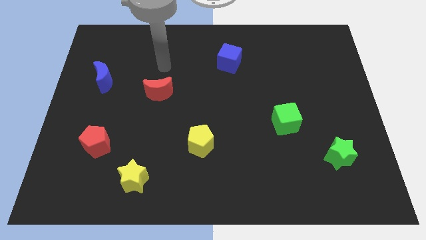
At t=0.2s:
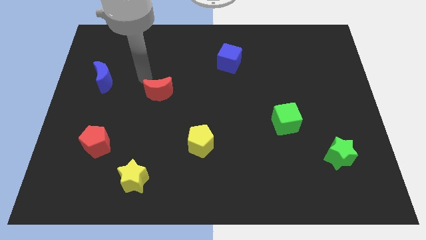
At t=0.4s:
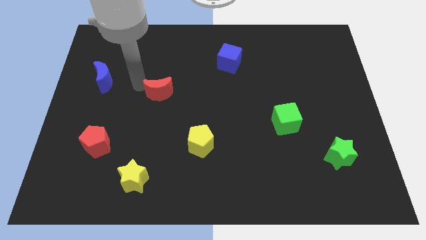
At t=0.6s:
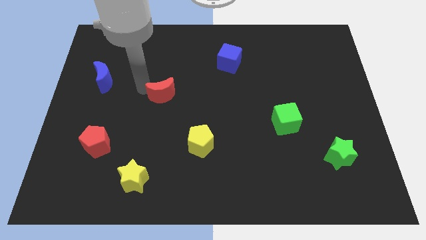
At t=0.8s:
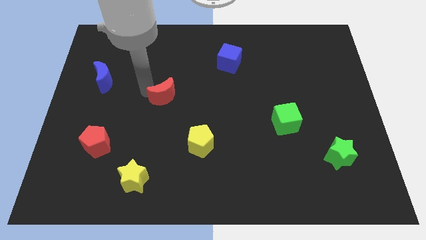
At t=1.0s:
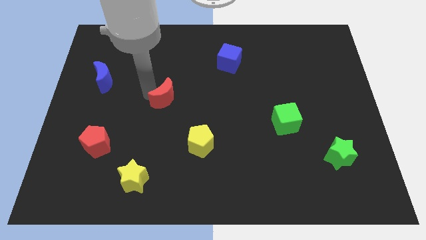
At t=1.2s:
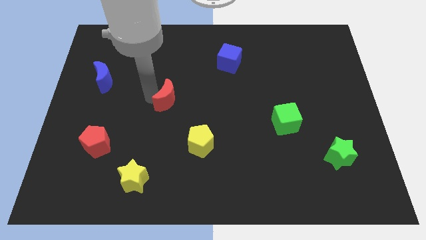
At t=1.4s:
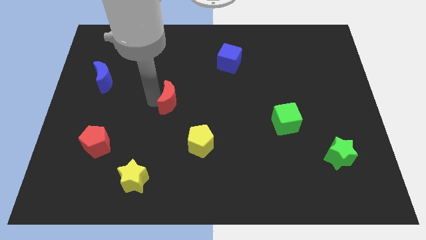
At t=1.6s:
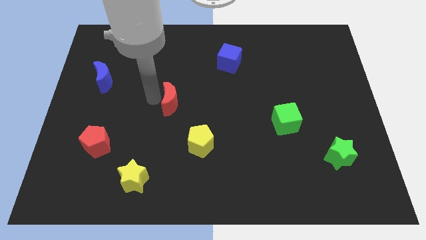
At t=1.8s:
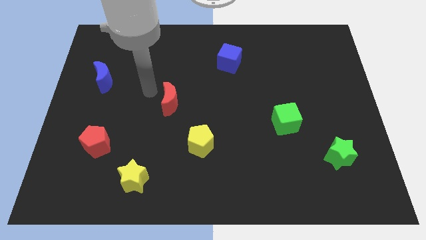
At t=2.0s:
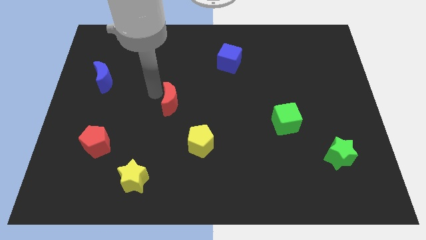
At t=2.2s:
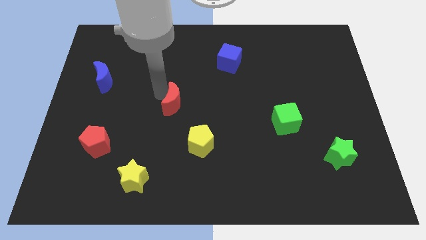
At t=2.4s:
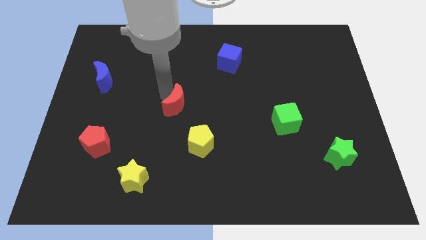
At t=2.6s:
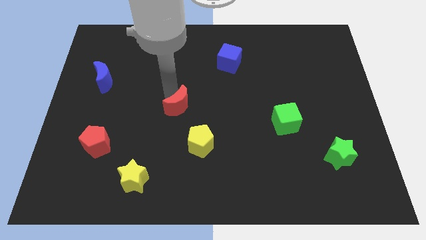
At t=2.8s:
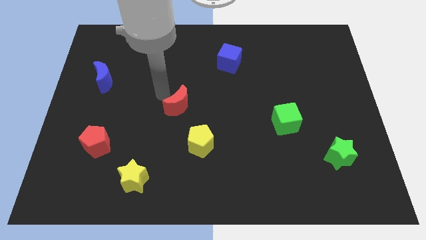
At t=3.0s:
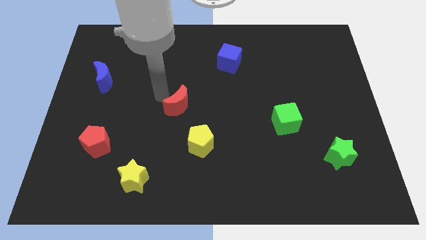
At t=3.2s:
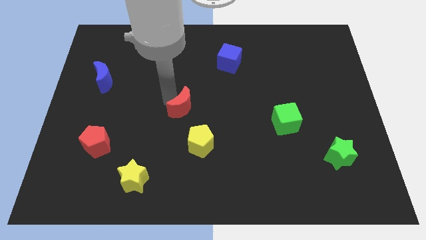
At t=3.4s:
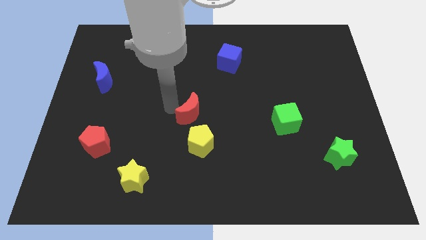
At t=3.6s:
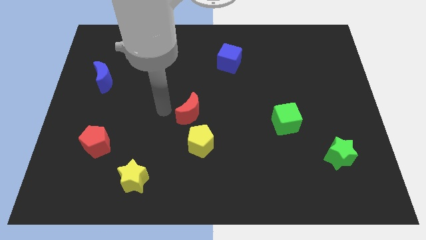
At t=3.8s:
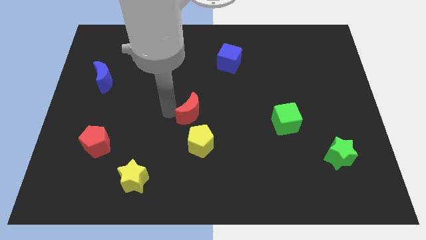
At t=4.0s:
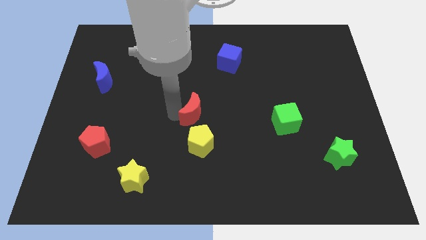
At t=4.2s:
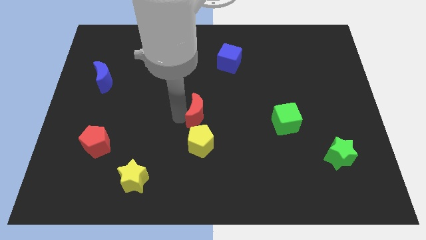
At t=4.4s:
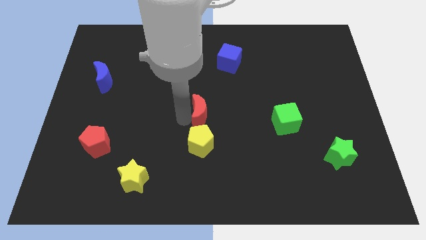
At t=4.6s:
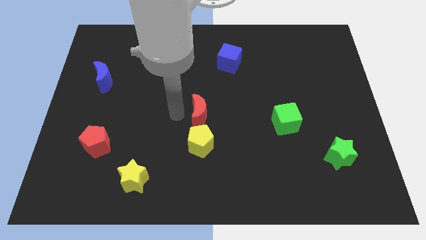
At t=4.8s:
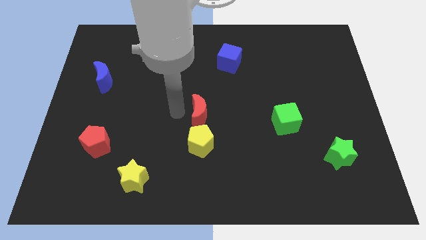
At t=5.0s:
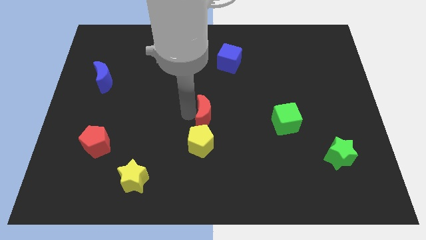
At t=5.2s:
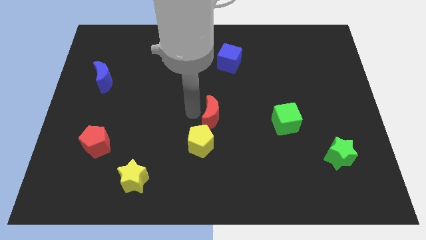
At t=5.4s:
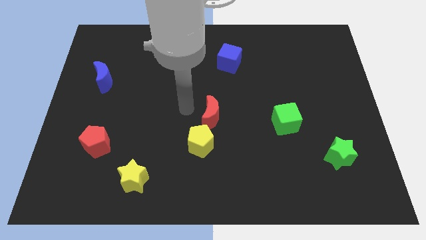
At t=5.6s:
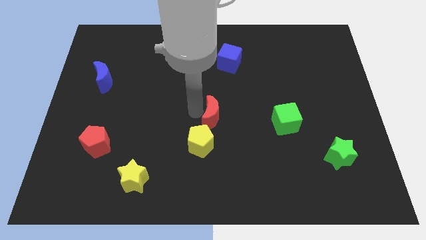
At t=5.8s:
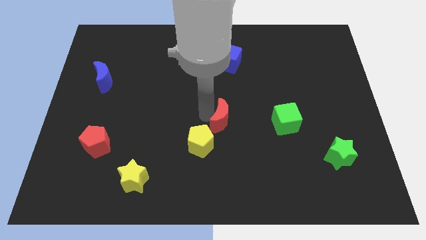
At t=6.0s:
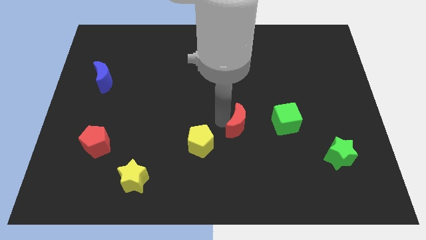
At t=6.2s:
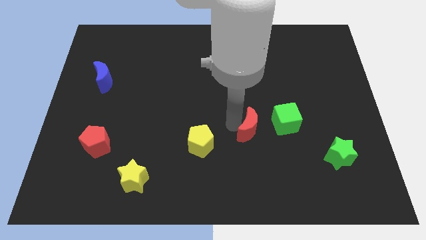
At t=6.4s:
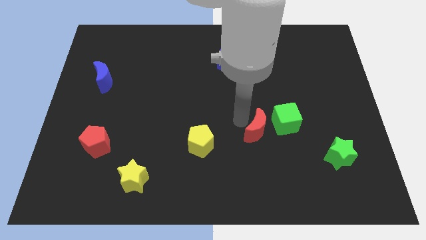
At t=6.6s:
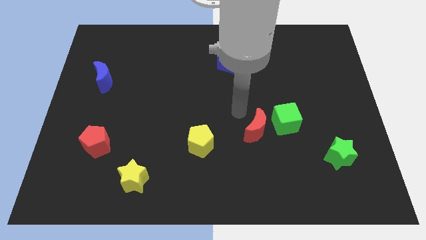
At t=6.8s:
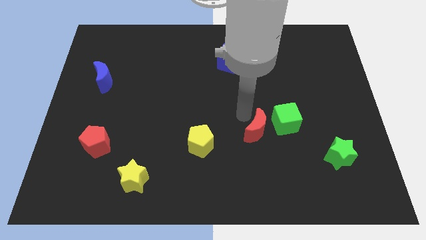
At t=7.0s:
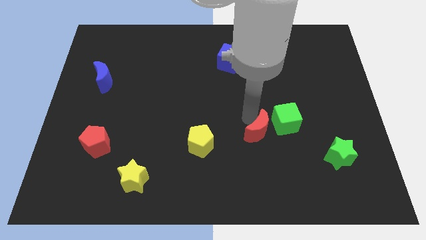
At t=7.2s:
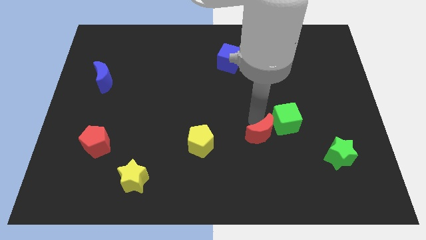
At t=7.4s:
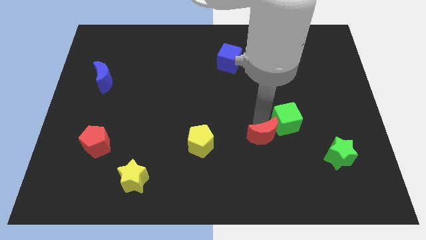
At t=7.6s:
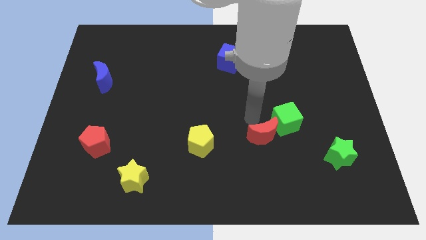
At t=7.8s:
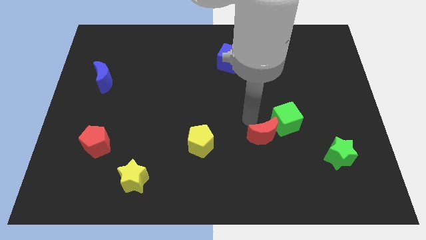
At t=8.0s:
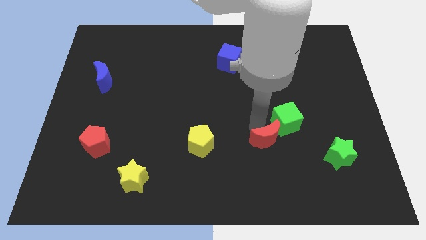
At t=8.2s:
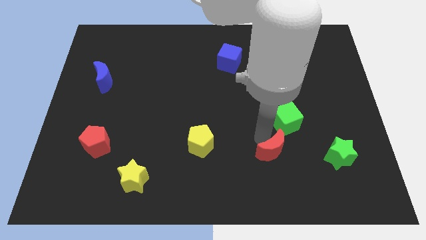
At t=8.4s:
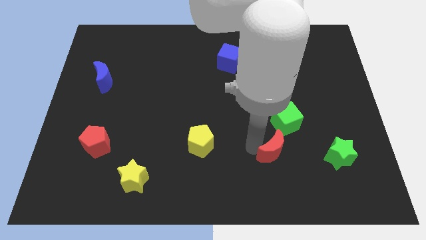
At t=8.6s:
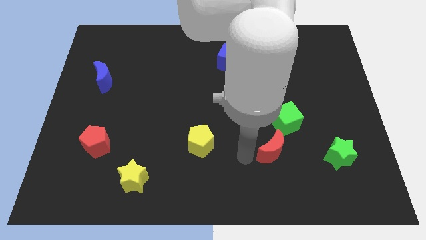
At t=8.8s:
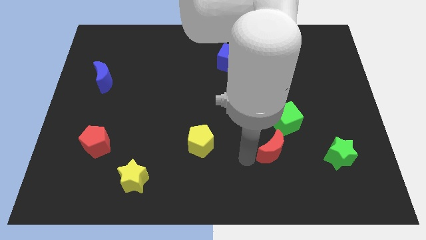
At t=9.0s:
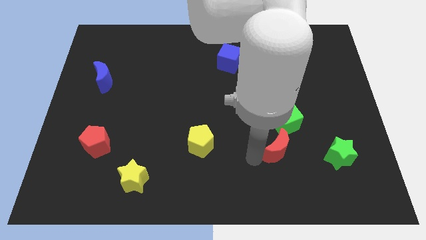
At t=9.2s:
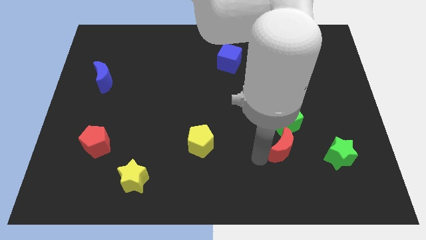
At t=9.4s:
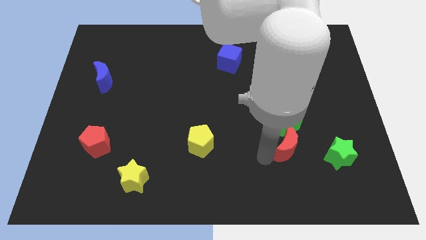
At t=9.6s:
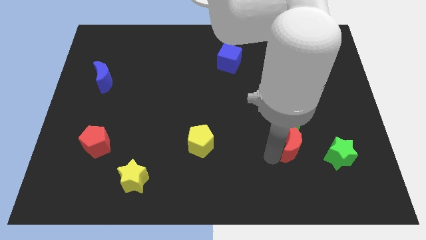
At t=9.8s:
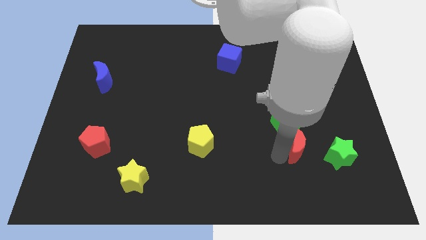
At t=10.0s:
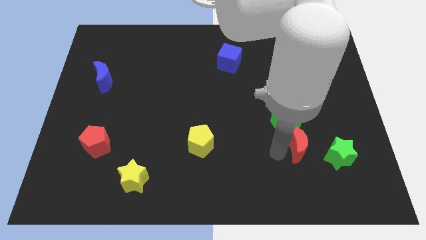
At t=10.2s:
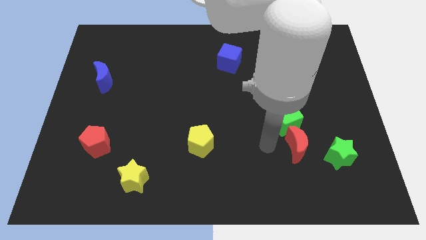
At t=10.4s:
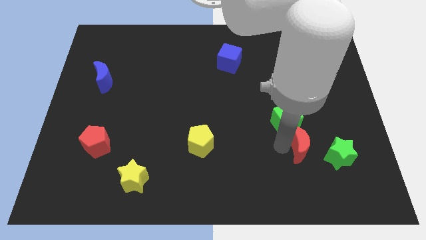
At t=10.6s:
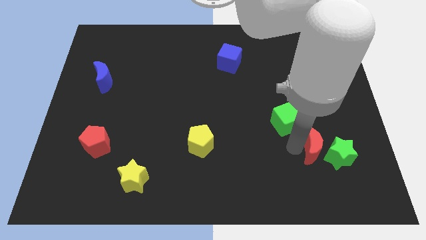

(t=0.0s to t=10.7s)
put the red moon to the green star

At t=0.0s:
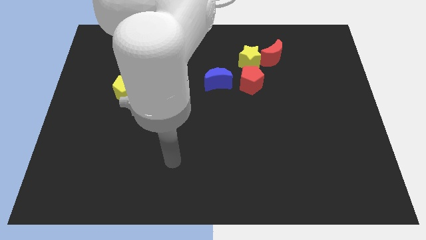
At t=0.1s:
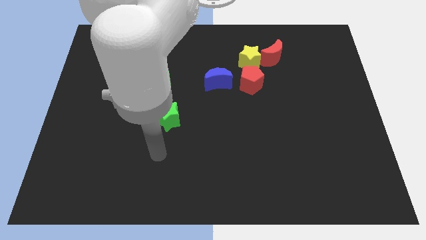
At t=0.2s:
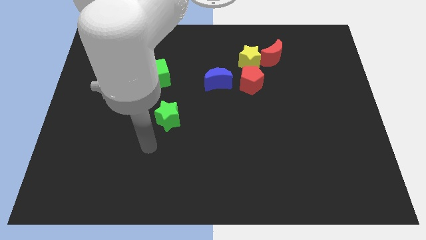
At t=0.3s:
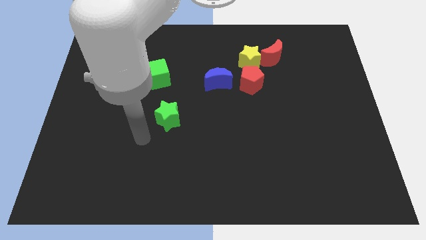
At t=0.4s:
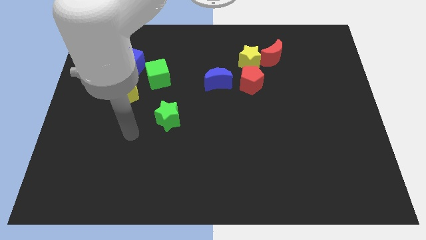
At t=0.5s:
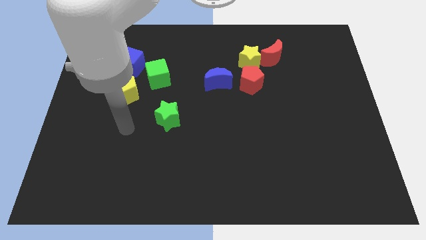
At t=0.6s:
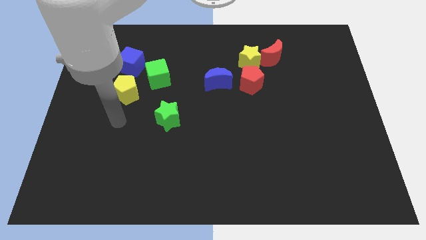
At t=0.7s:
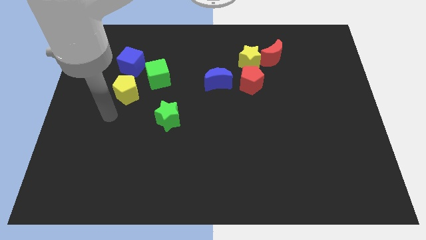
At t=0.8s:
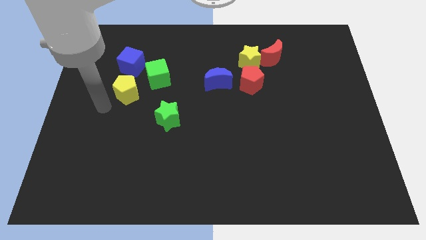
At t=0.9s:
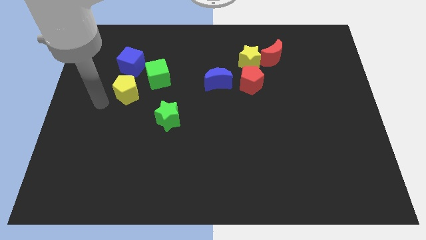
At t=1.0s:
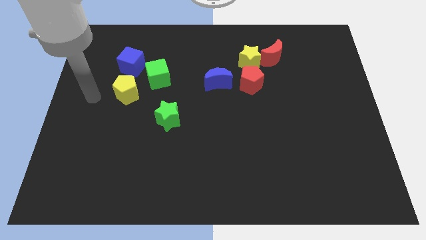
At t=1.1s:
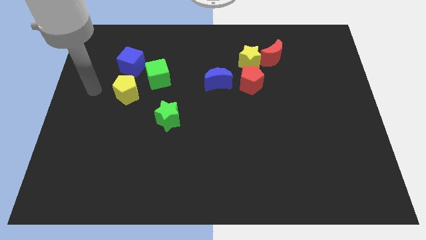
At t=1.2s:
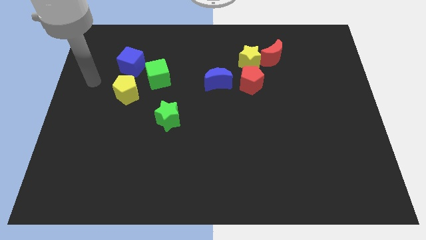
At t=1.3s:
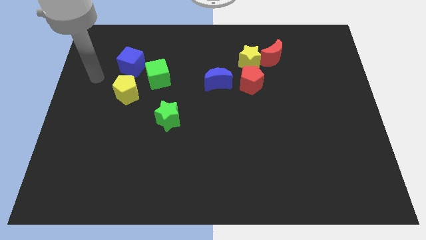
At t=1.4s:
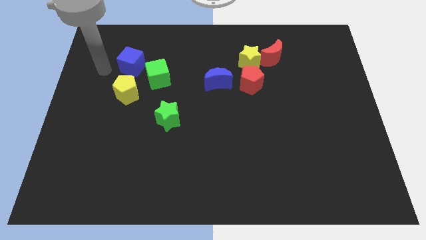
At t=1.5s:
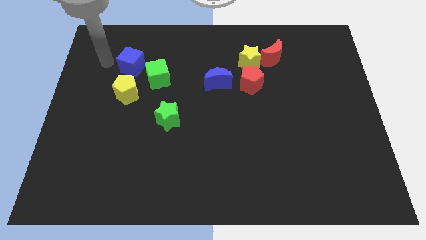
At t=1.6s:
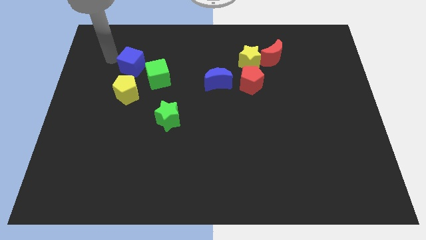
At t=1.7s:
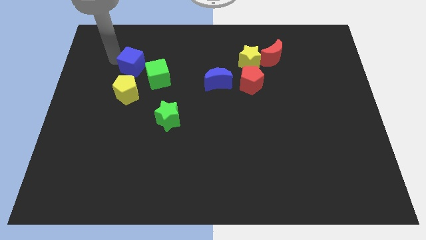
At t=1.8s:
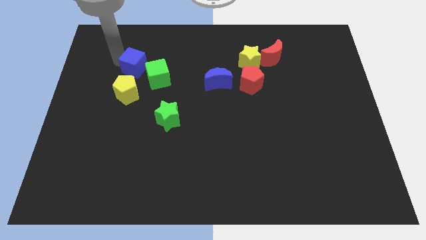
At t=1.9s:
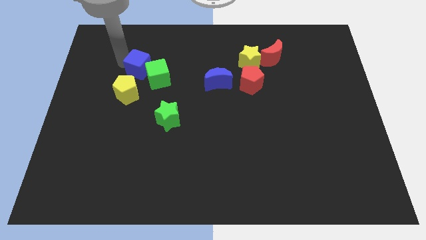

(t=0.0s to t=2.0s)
slide the blue cube next to the green cube
